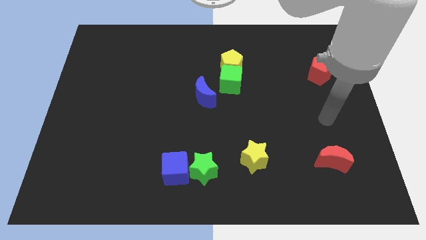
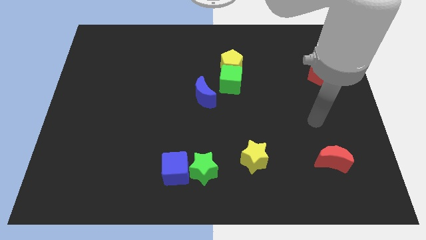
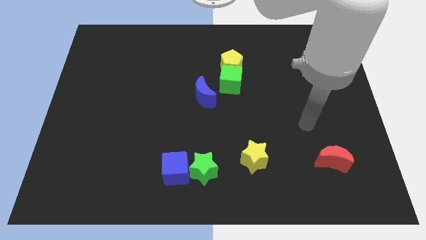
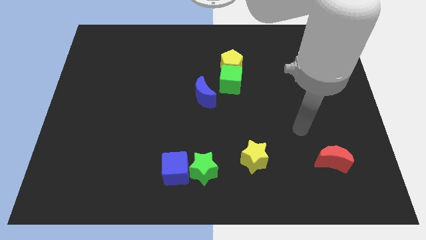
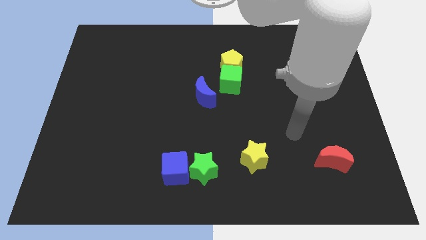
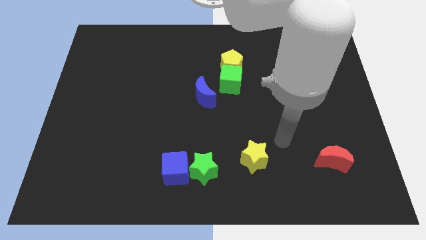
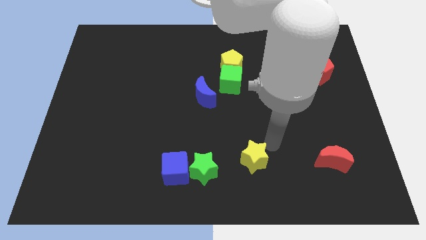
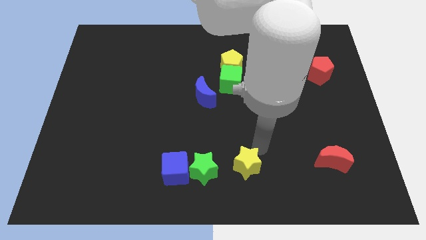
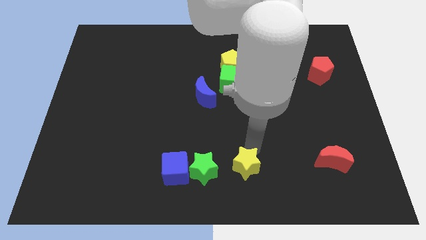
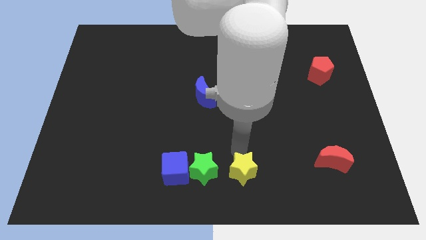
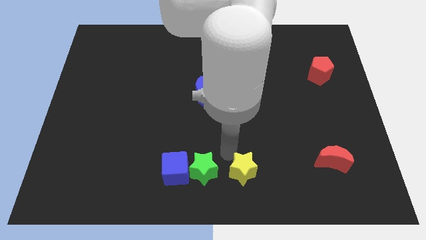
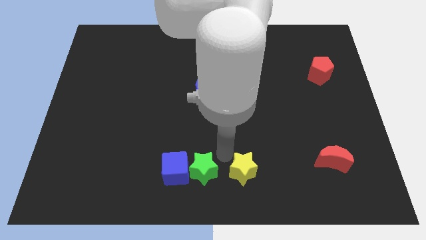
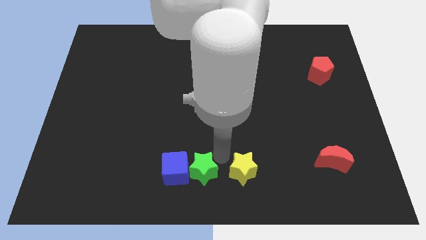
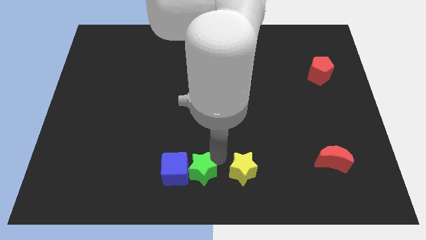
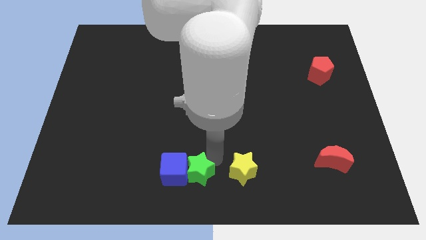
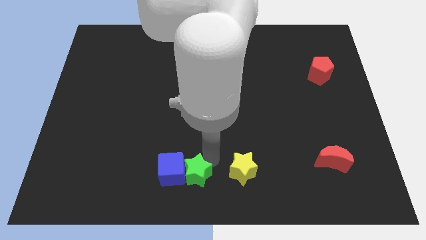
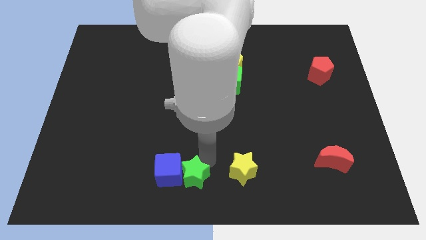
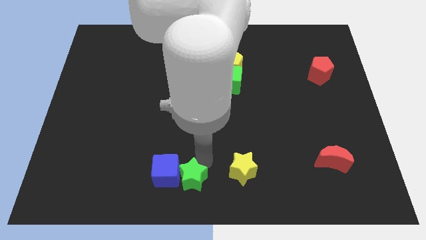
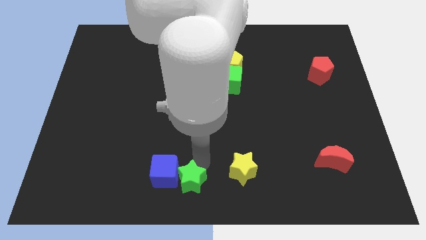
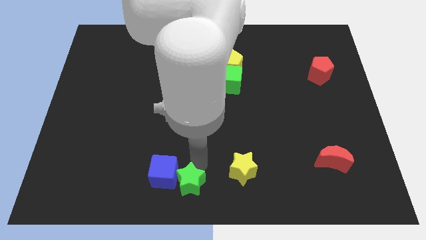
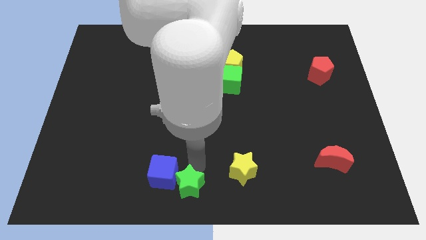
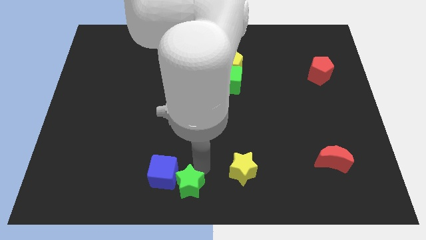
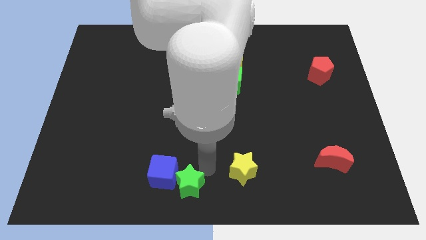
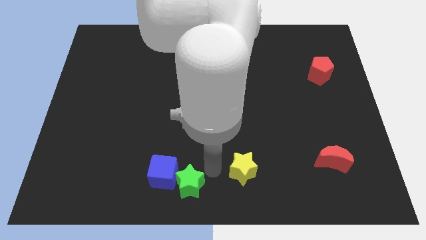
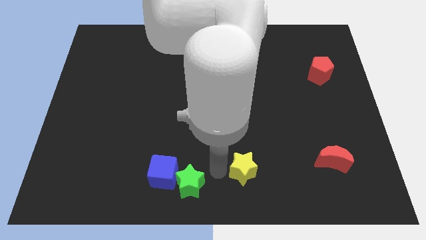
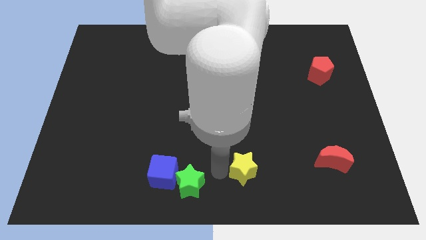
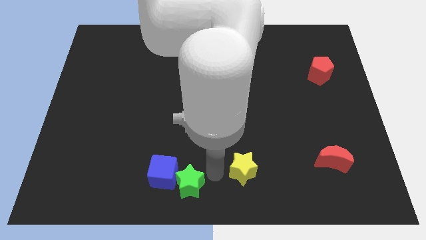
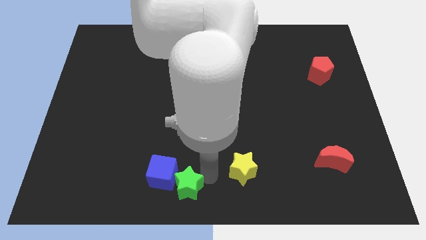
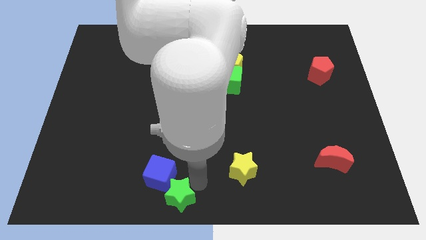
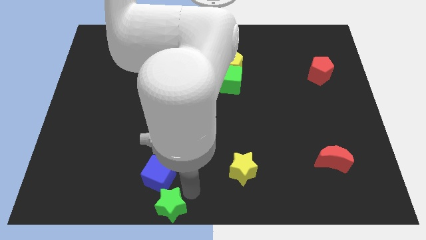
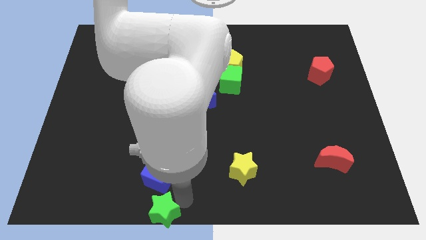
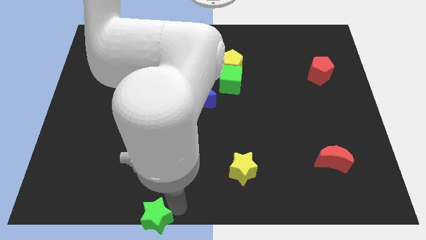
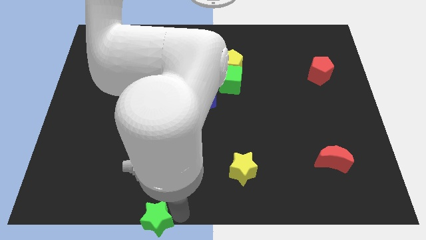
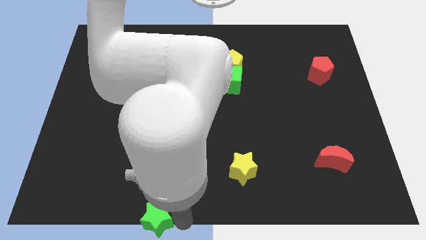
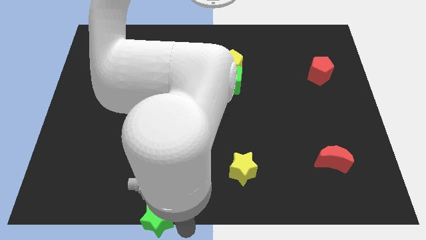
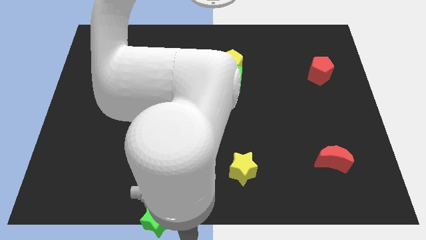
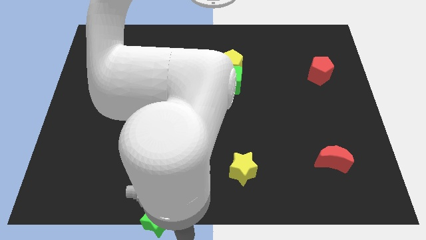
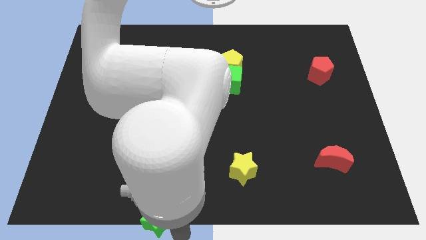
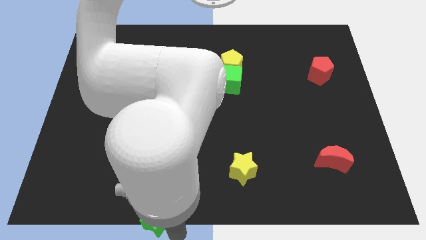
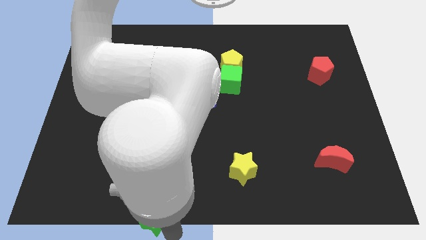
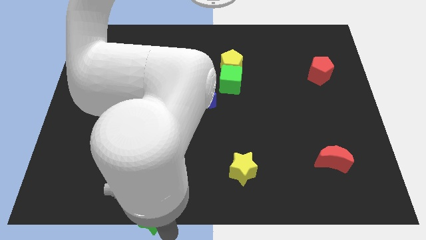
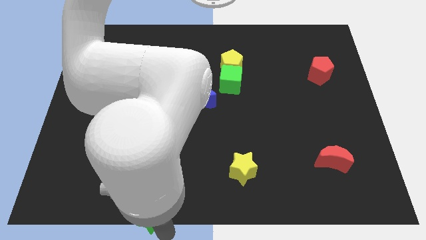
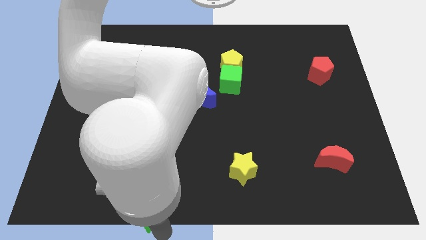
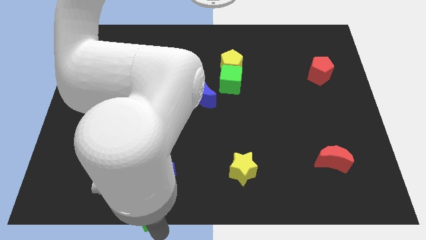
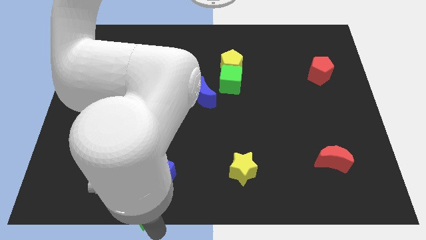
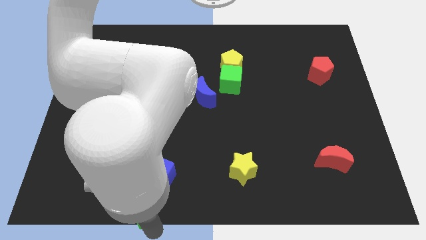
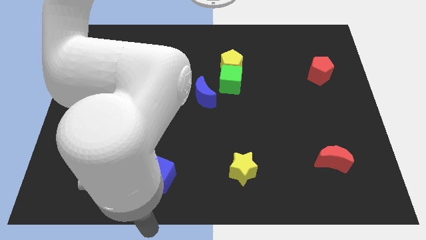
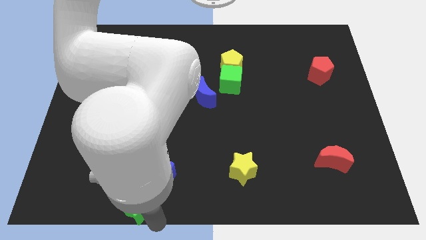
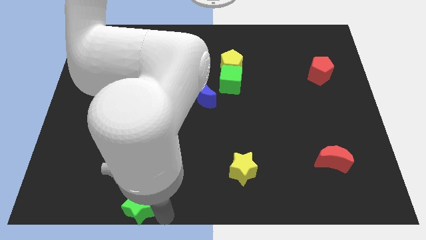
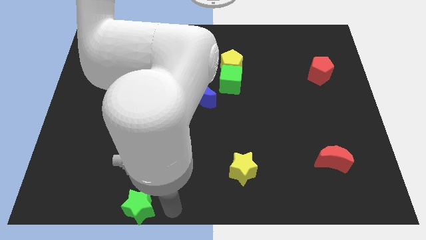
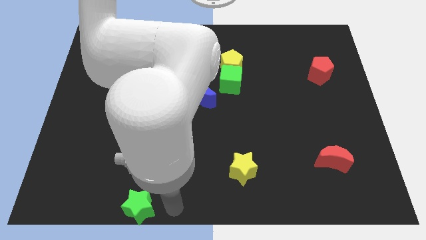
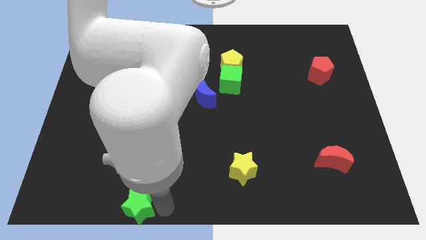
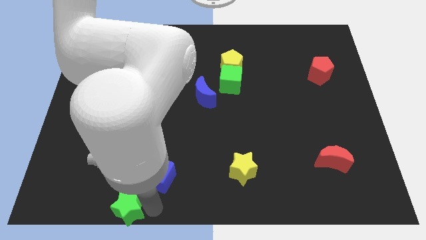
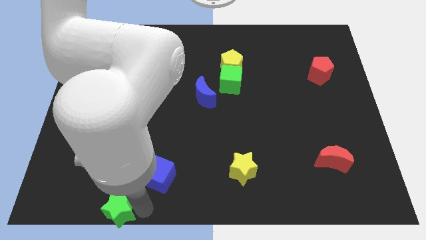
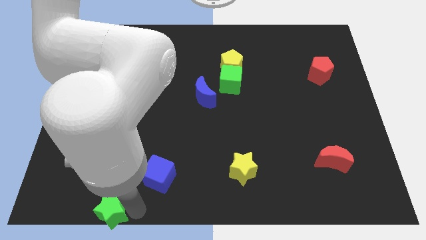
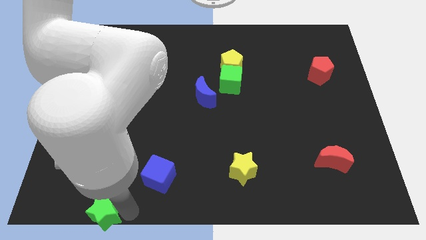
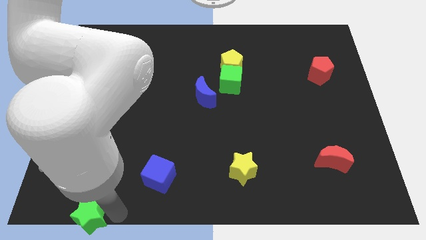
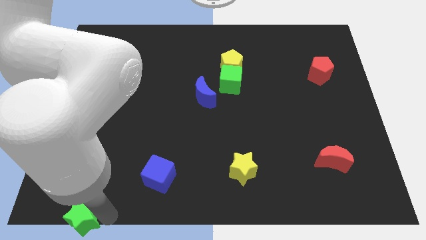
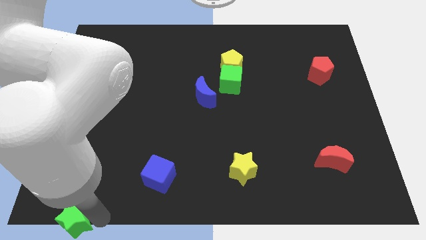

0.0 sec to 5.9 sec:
push the green star to the bottom left of the board
